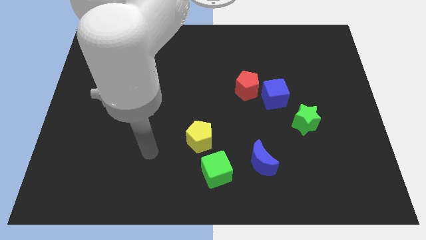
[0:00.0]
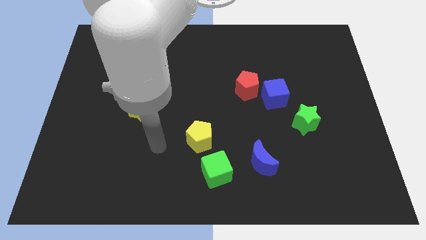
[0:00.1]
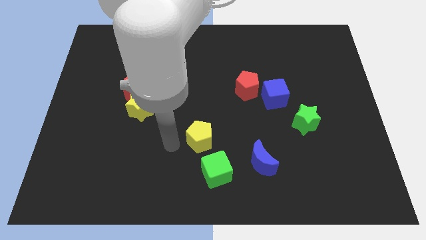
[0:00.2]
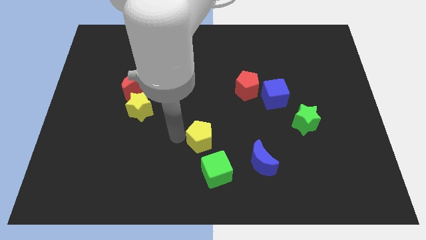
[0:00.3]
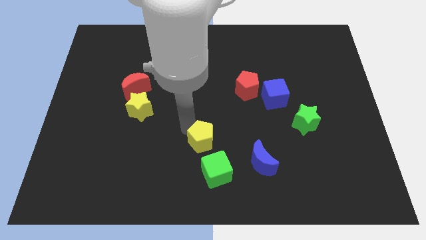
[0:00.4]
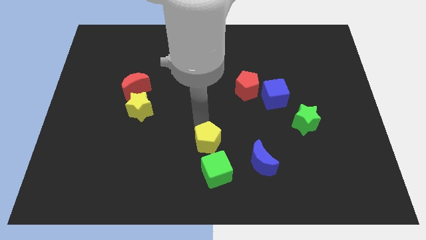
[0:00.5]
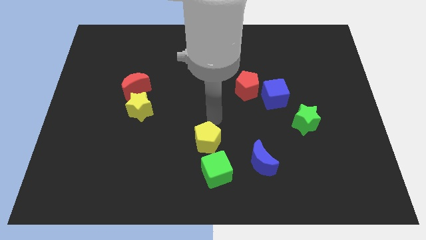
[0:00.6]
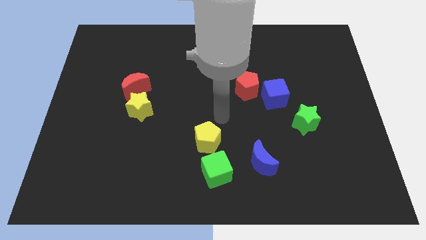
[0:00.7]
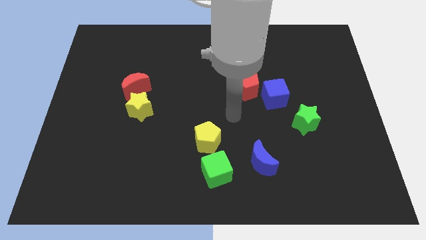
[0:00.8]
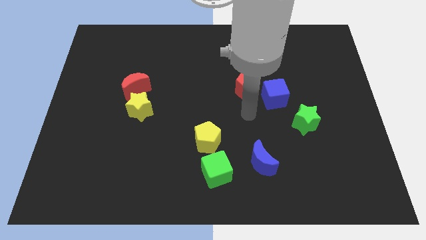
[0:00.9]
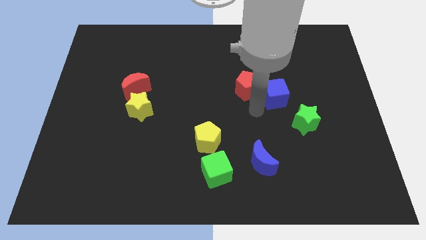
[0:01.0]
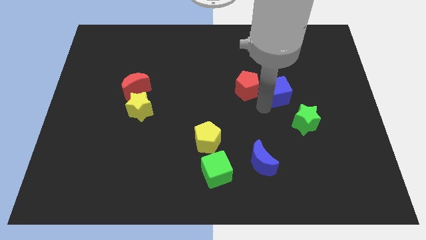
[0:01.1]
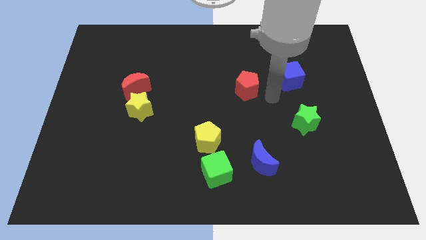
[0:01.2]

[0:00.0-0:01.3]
pull the red pentagon apart from the blue cube

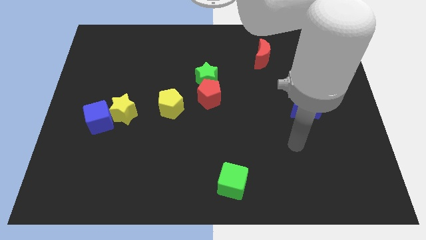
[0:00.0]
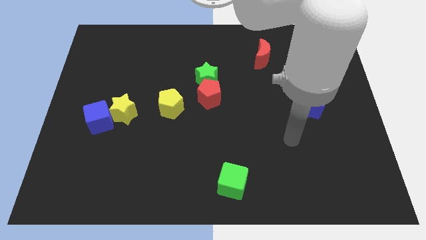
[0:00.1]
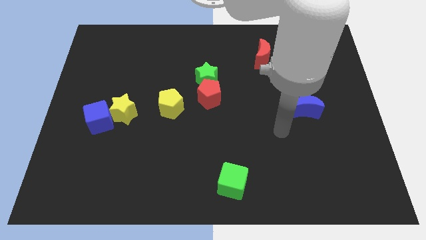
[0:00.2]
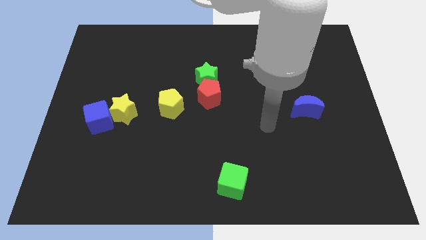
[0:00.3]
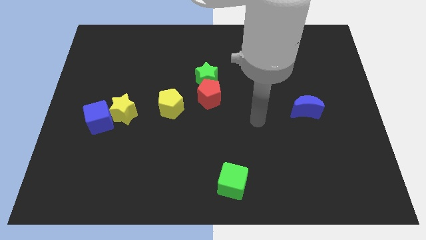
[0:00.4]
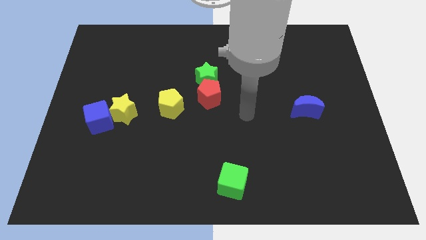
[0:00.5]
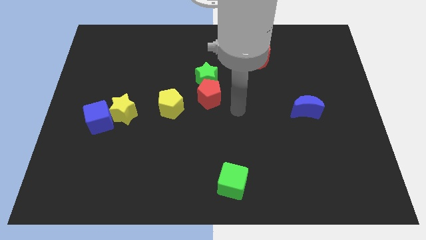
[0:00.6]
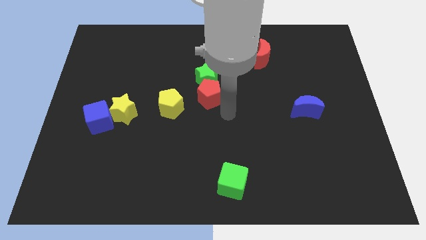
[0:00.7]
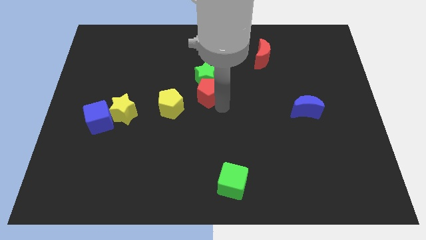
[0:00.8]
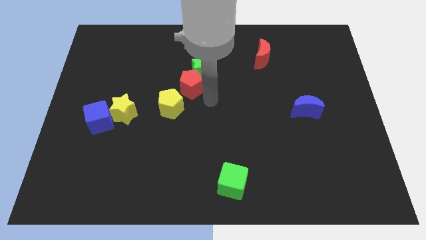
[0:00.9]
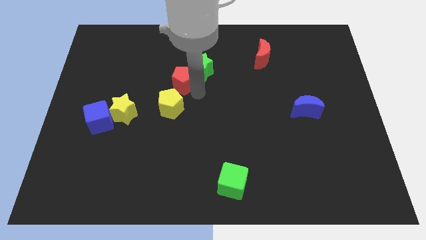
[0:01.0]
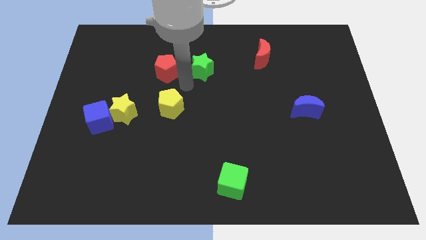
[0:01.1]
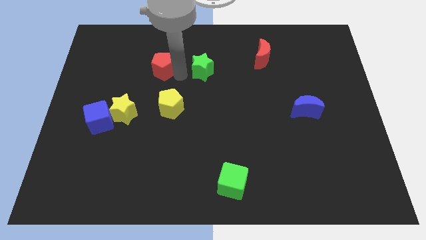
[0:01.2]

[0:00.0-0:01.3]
separate the green star from the red pentagon

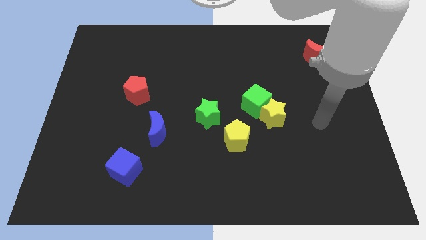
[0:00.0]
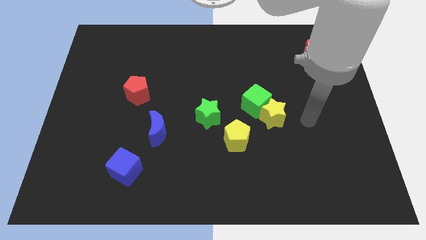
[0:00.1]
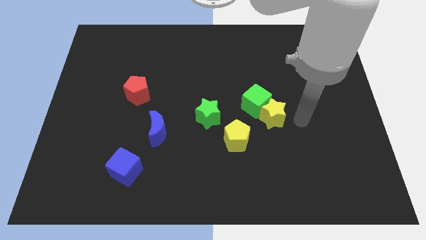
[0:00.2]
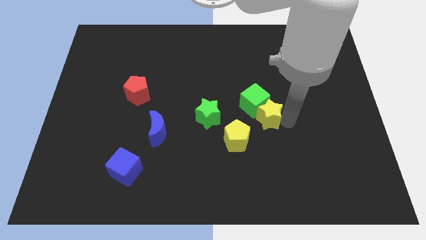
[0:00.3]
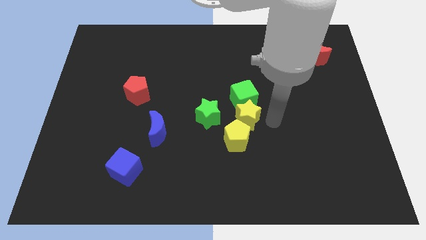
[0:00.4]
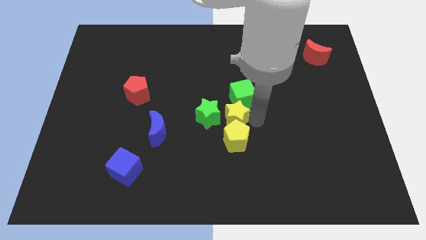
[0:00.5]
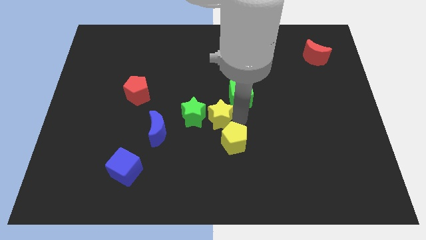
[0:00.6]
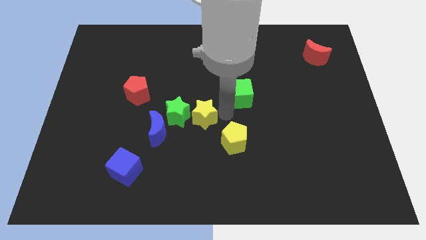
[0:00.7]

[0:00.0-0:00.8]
pull the green cube apart from the yellow star

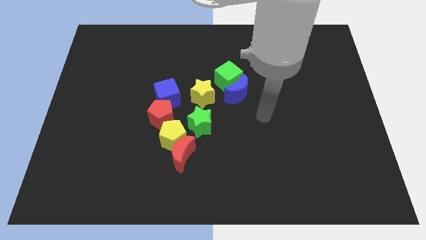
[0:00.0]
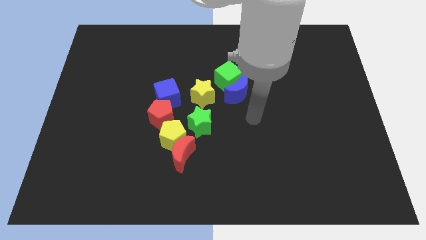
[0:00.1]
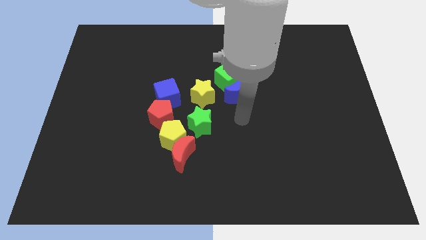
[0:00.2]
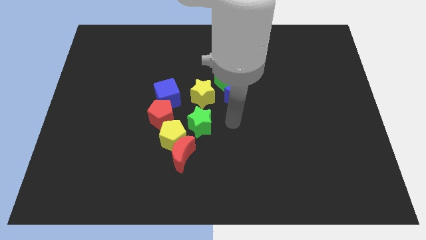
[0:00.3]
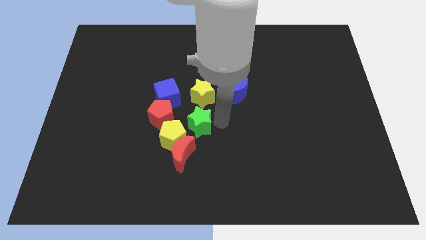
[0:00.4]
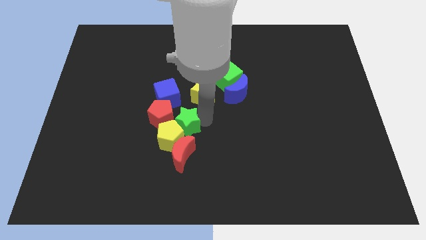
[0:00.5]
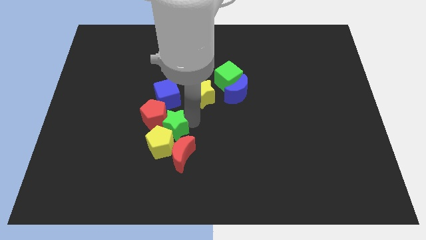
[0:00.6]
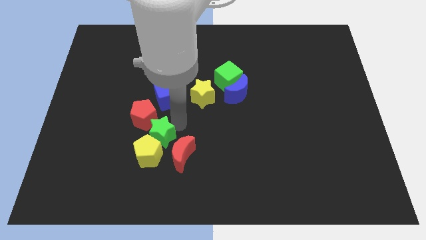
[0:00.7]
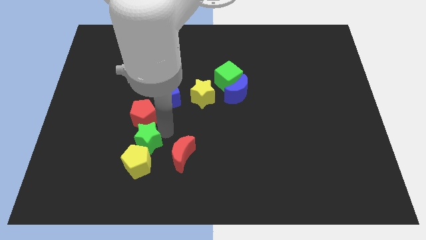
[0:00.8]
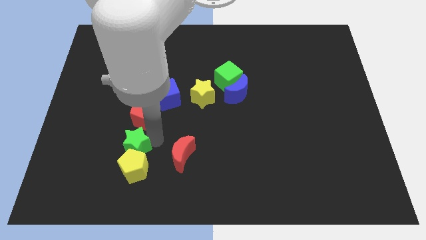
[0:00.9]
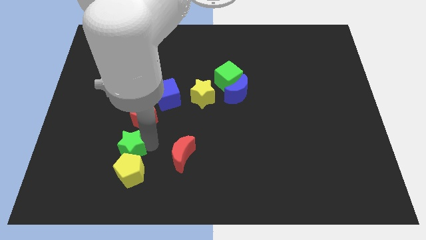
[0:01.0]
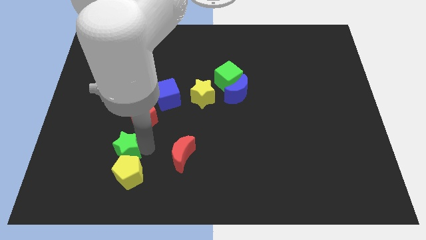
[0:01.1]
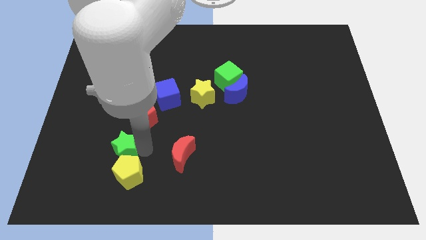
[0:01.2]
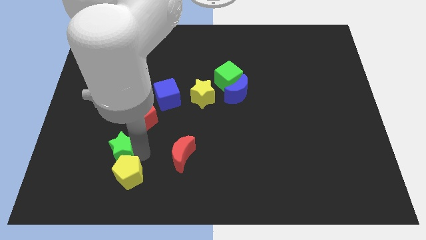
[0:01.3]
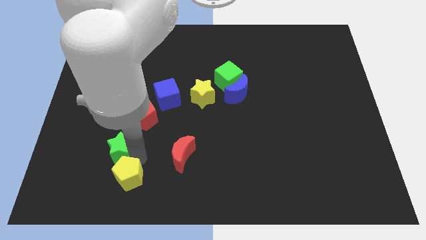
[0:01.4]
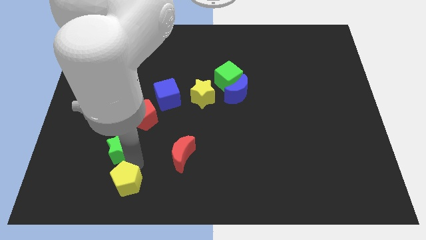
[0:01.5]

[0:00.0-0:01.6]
pull the yellow pentagon apart from the red moon, red pentagon, and green star

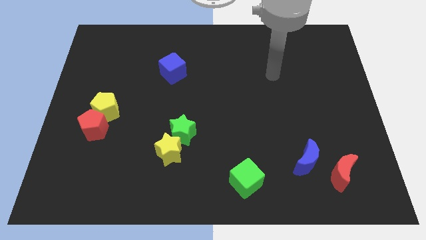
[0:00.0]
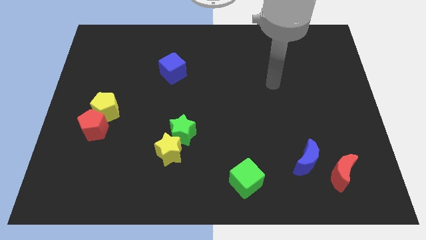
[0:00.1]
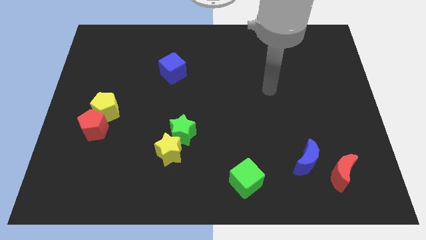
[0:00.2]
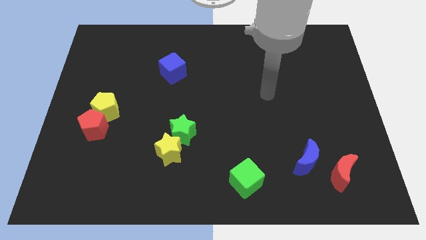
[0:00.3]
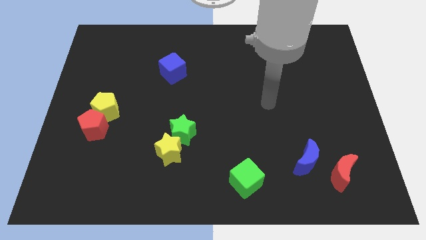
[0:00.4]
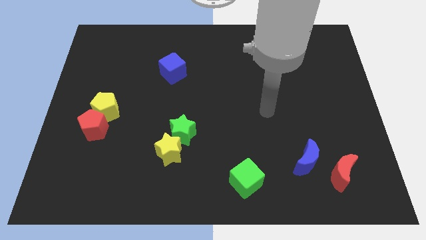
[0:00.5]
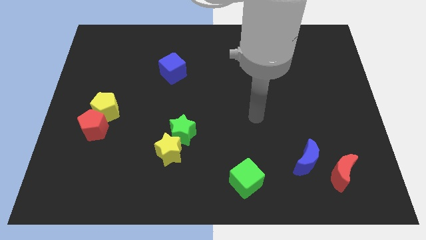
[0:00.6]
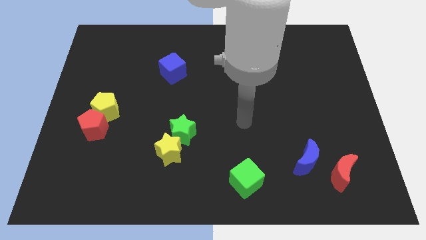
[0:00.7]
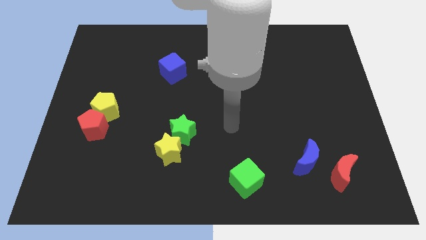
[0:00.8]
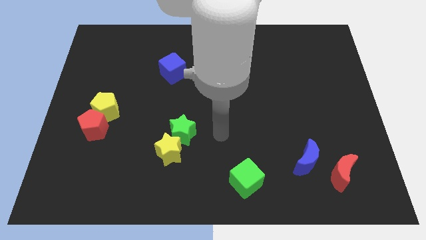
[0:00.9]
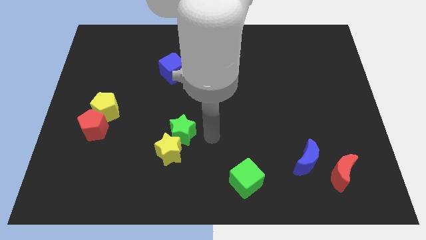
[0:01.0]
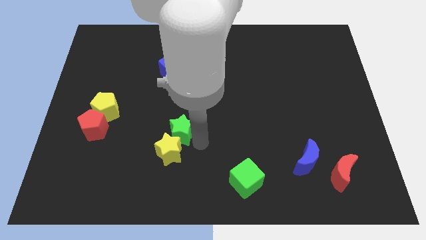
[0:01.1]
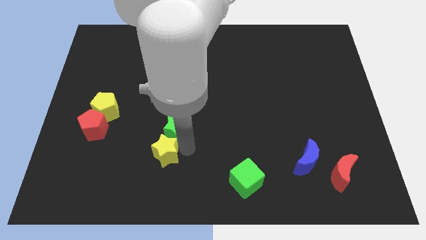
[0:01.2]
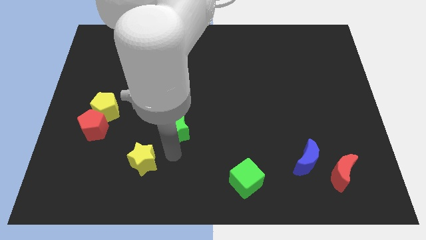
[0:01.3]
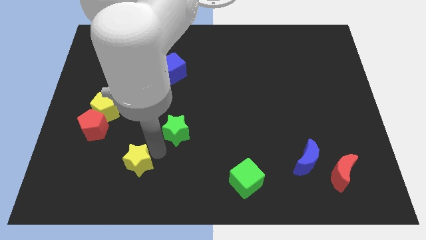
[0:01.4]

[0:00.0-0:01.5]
move the green star away from the yellow star

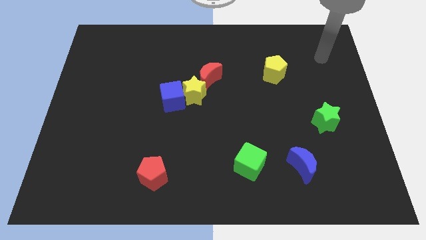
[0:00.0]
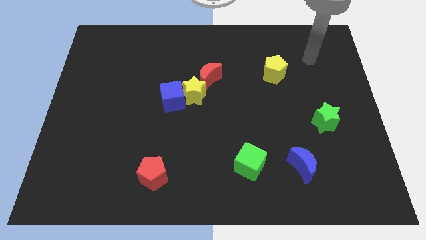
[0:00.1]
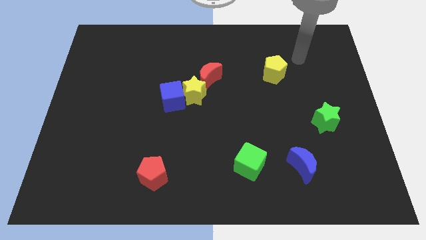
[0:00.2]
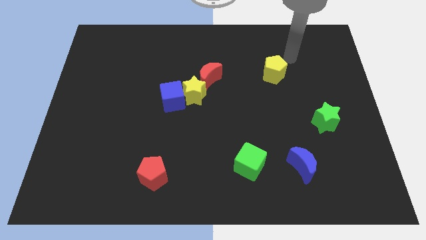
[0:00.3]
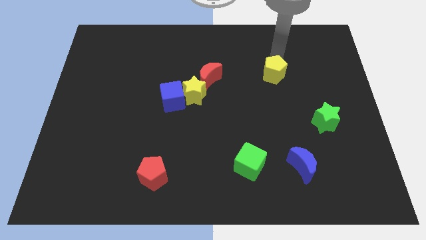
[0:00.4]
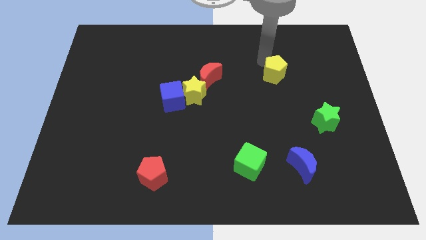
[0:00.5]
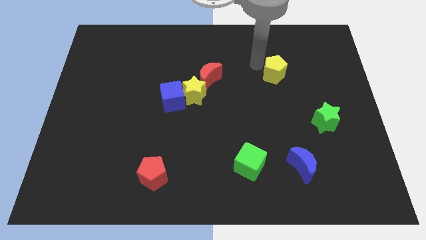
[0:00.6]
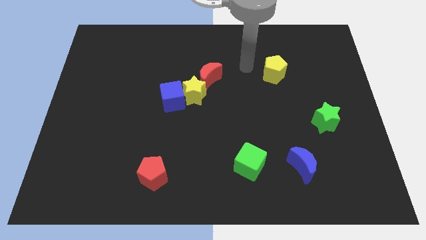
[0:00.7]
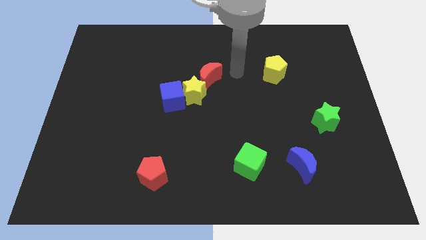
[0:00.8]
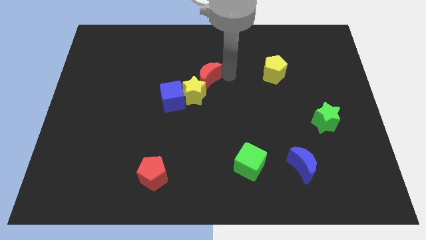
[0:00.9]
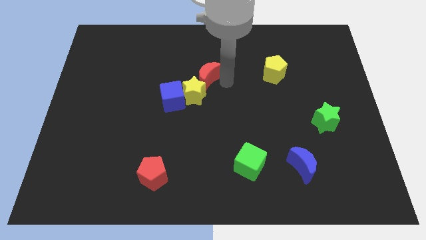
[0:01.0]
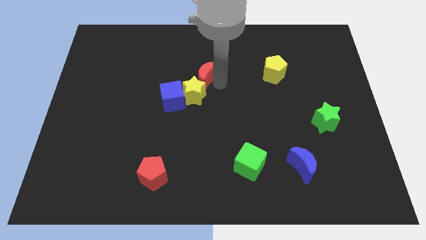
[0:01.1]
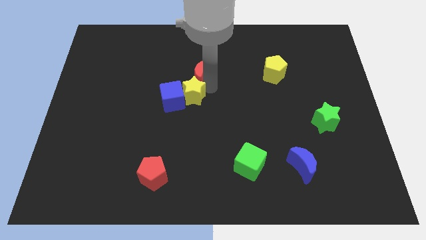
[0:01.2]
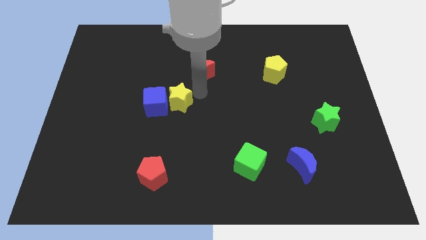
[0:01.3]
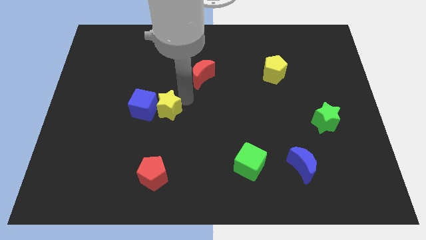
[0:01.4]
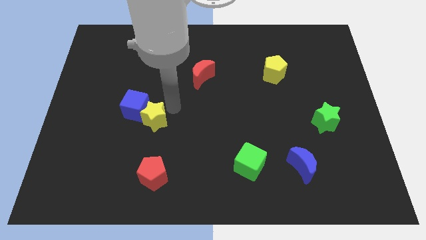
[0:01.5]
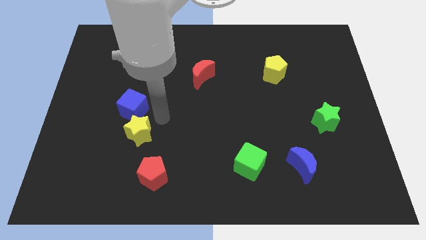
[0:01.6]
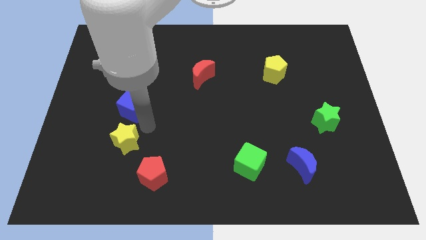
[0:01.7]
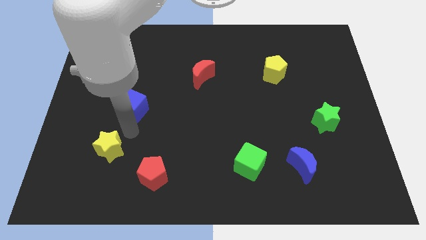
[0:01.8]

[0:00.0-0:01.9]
move the blue cube away from the yellow star

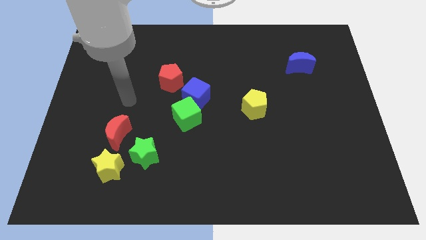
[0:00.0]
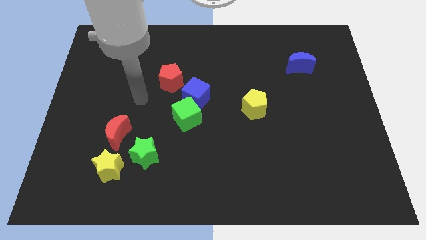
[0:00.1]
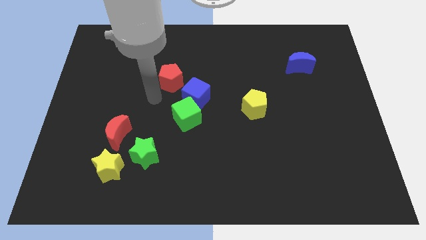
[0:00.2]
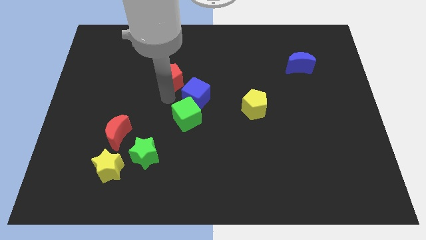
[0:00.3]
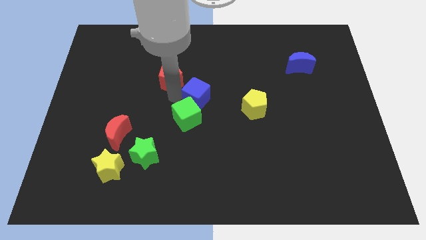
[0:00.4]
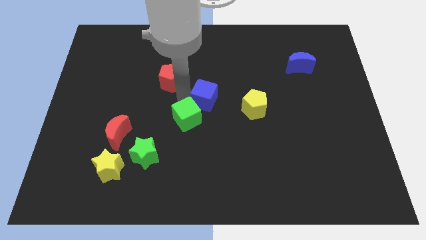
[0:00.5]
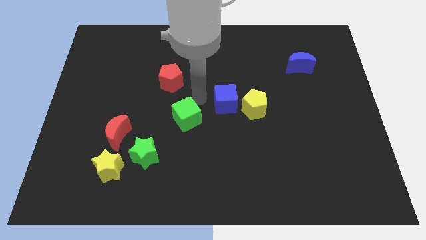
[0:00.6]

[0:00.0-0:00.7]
pull the green cube apart from the blue cube

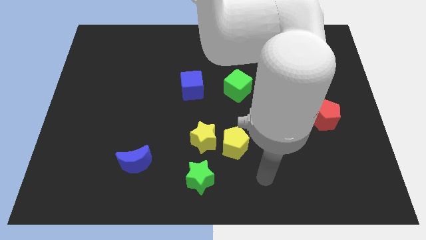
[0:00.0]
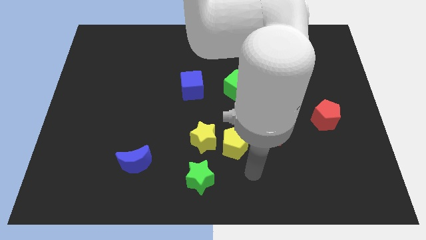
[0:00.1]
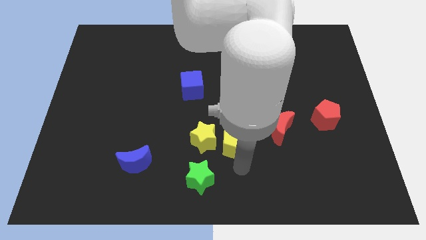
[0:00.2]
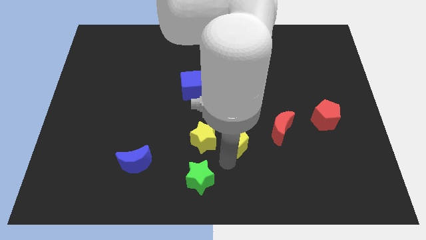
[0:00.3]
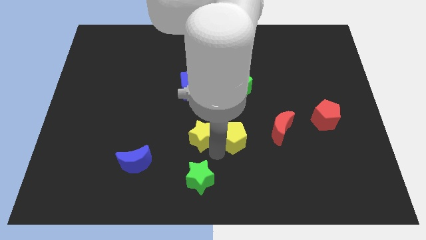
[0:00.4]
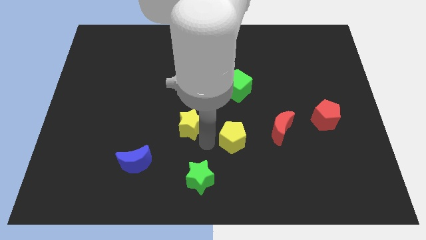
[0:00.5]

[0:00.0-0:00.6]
separate the yellow pentagon from the yellow star
